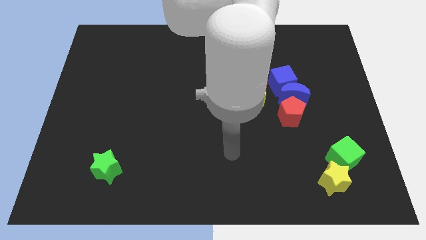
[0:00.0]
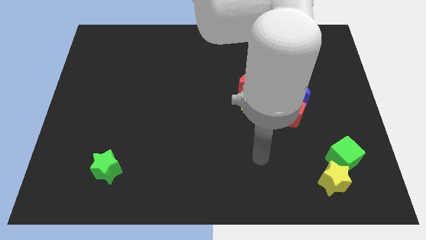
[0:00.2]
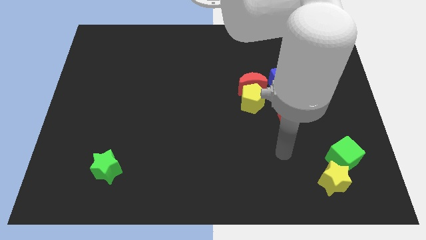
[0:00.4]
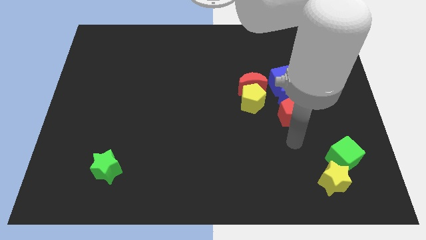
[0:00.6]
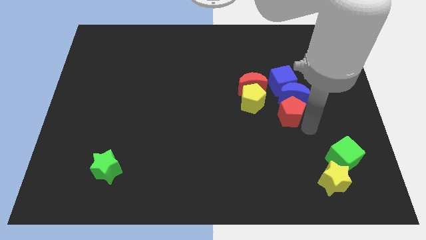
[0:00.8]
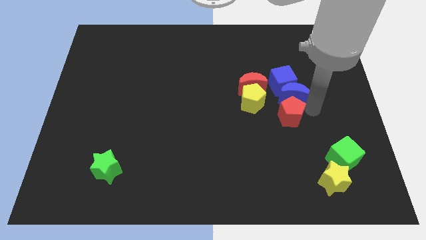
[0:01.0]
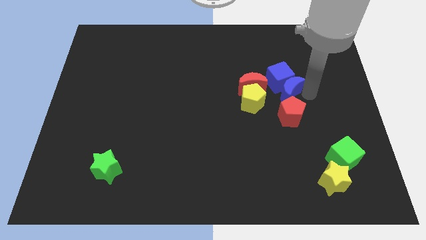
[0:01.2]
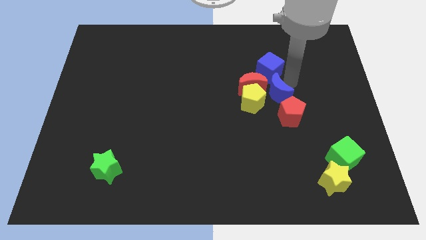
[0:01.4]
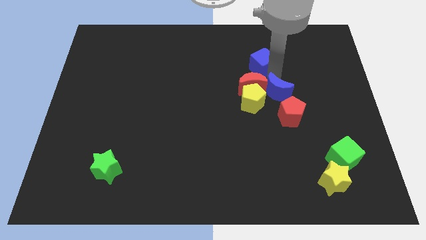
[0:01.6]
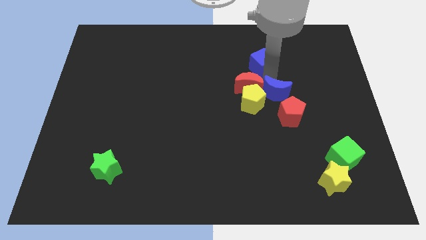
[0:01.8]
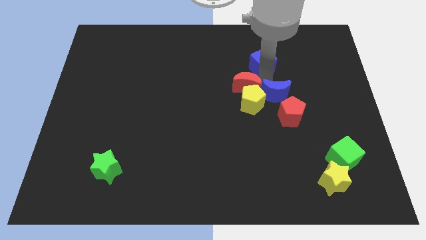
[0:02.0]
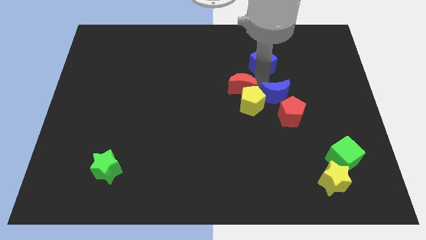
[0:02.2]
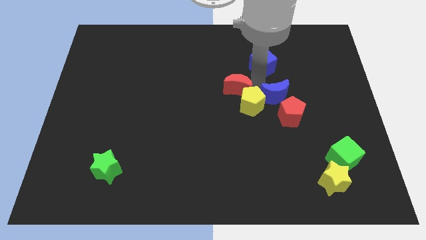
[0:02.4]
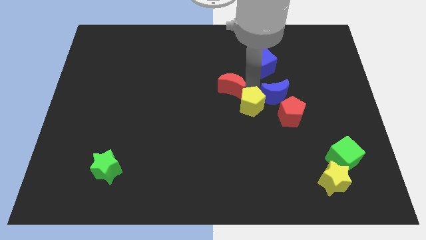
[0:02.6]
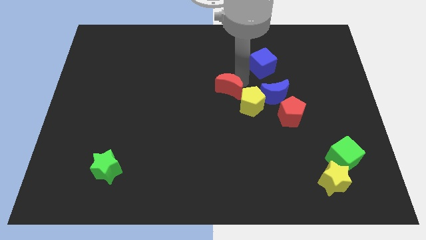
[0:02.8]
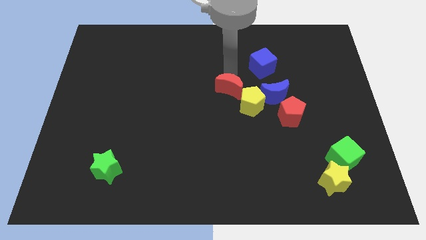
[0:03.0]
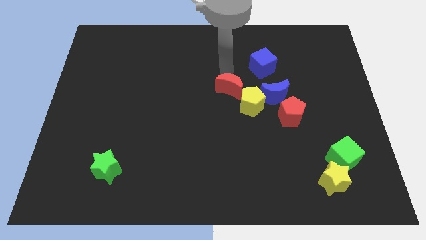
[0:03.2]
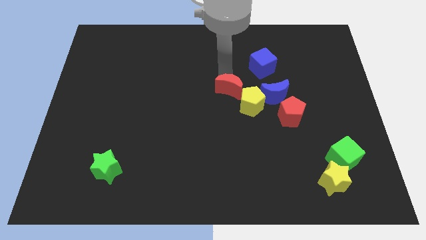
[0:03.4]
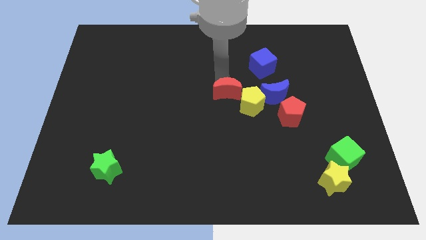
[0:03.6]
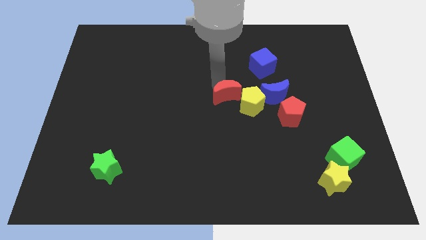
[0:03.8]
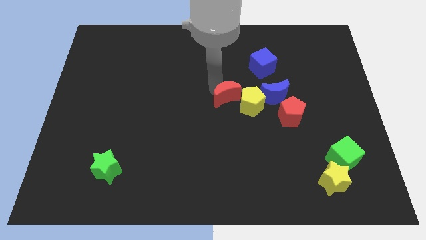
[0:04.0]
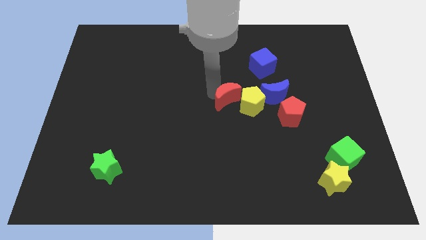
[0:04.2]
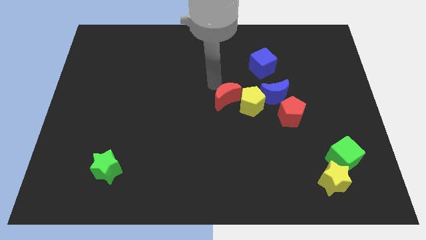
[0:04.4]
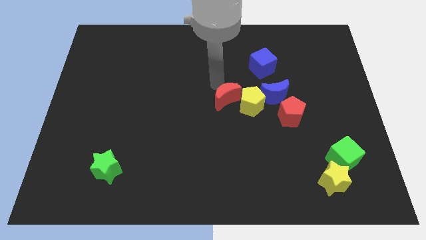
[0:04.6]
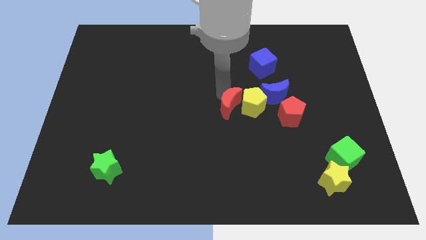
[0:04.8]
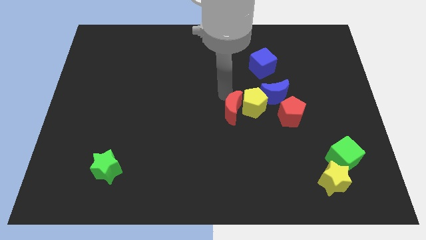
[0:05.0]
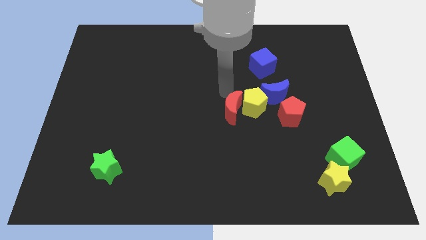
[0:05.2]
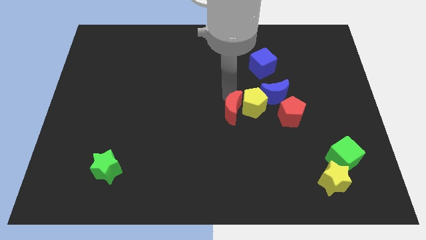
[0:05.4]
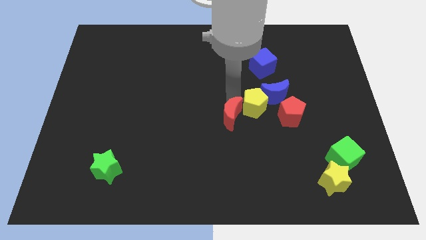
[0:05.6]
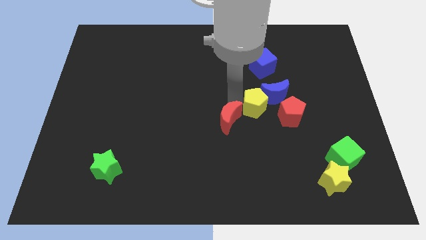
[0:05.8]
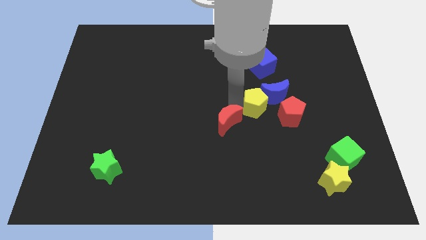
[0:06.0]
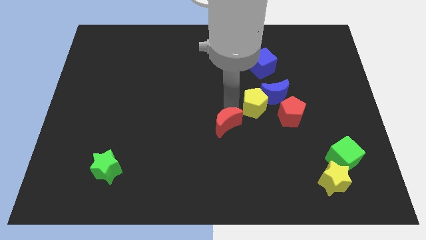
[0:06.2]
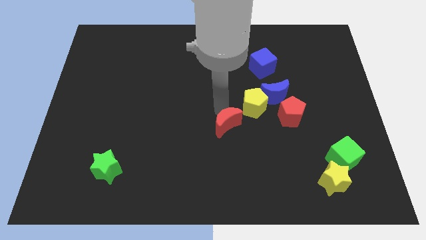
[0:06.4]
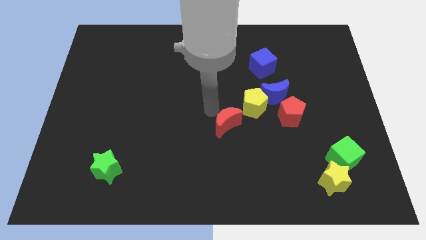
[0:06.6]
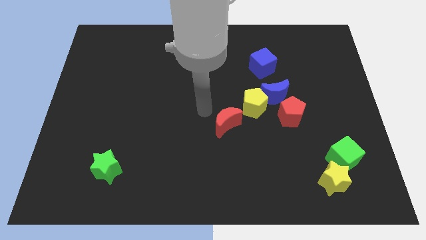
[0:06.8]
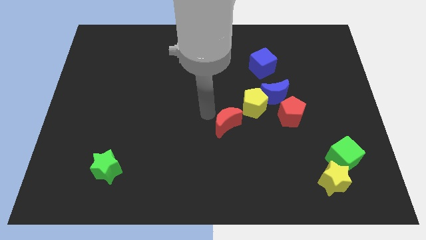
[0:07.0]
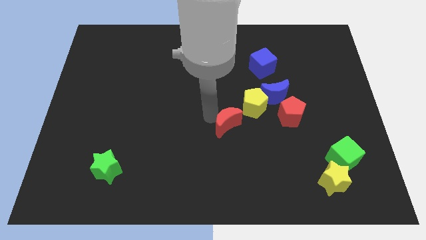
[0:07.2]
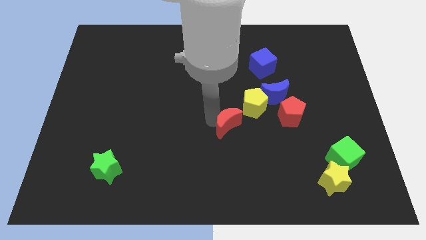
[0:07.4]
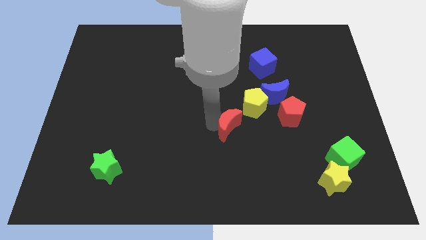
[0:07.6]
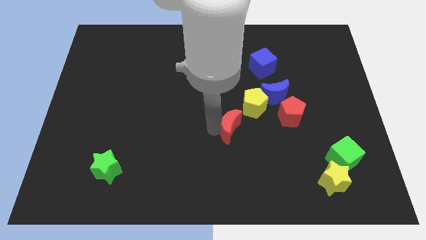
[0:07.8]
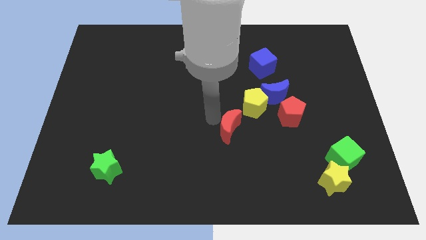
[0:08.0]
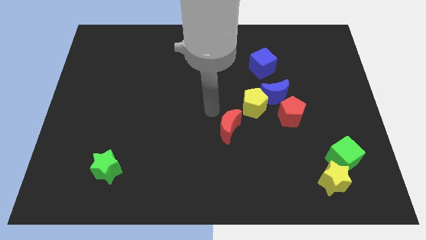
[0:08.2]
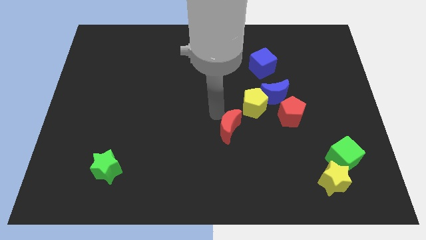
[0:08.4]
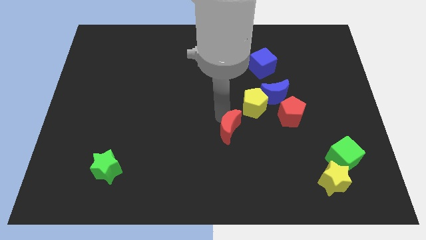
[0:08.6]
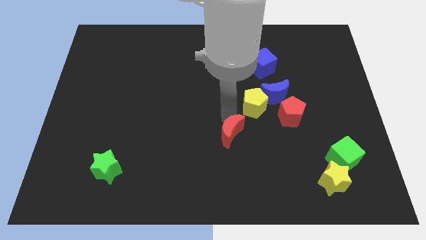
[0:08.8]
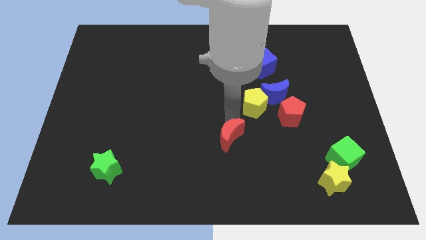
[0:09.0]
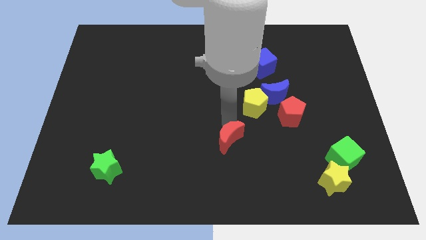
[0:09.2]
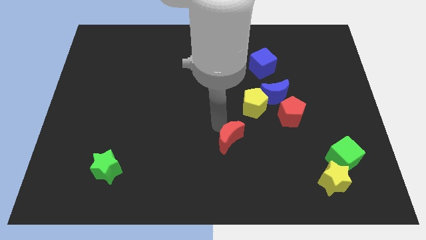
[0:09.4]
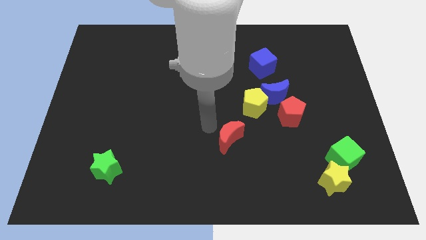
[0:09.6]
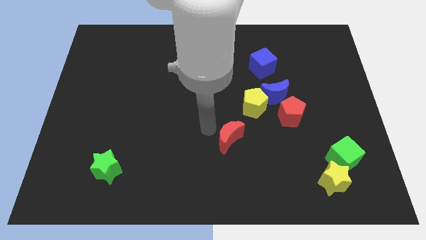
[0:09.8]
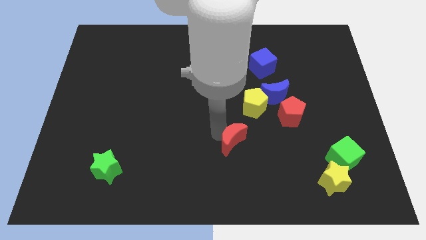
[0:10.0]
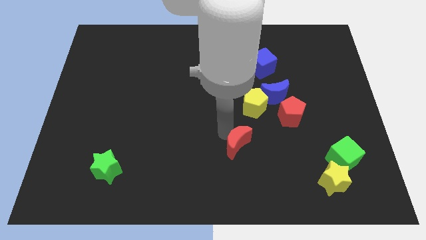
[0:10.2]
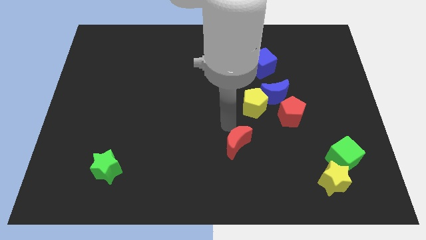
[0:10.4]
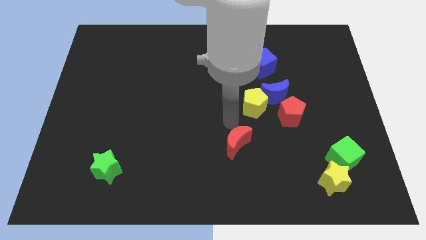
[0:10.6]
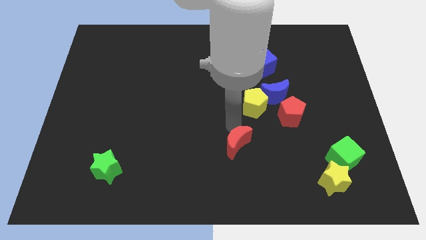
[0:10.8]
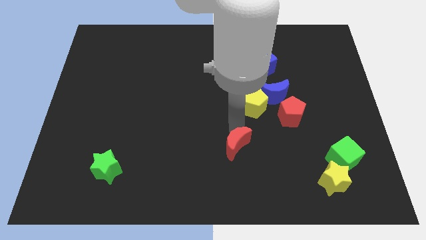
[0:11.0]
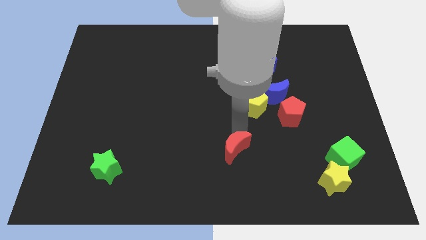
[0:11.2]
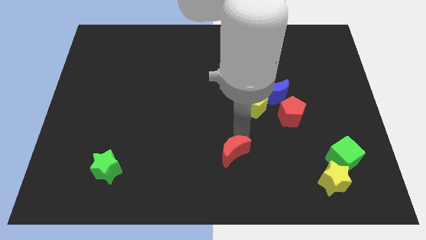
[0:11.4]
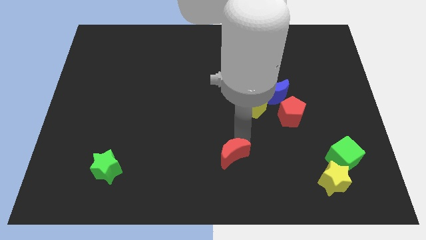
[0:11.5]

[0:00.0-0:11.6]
move the red moon to the bottom side
